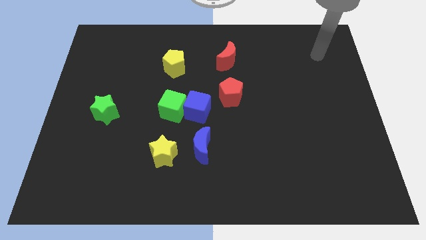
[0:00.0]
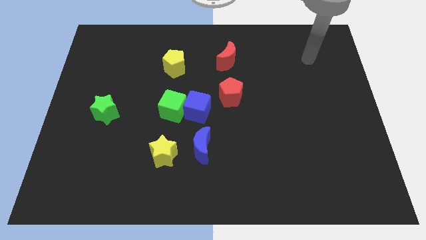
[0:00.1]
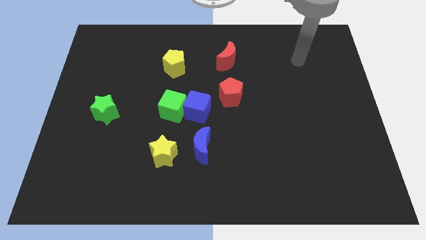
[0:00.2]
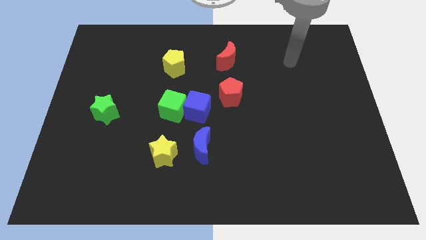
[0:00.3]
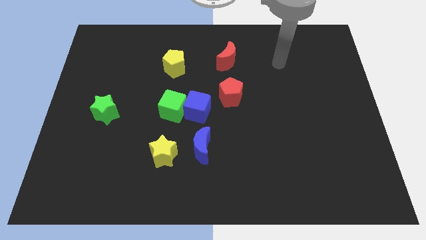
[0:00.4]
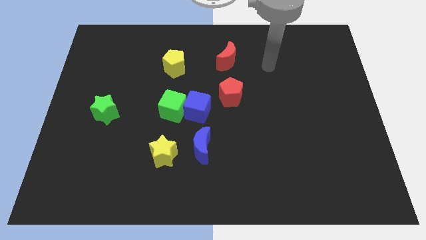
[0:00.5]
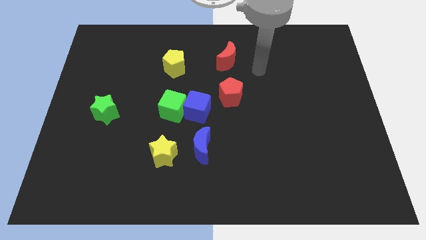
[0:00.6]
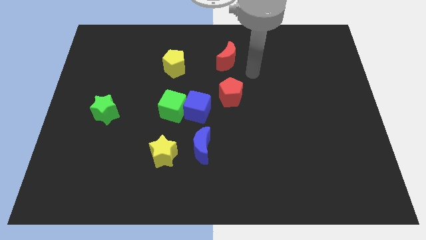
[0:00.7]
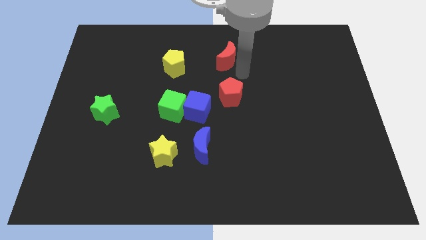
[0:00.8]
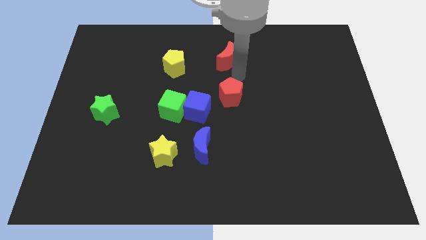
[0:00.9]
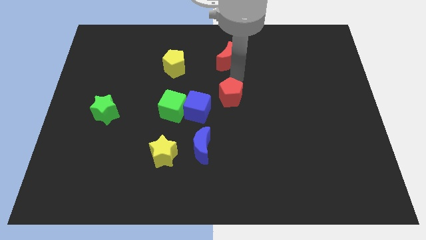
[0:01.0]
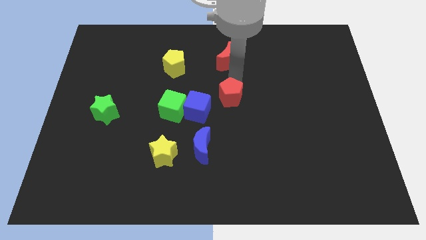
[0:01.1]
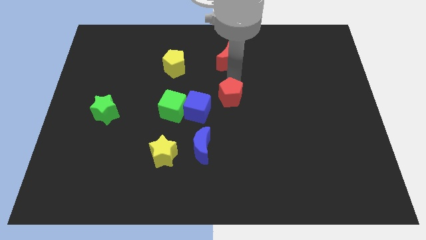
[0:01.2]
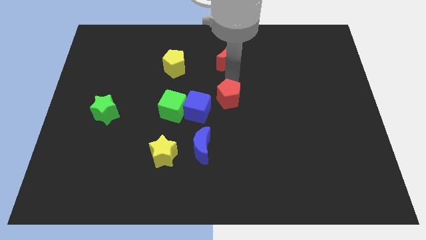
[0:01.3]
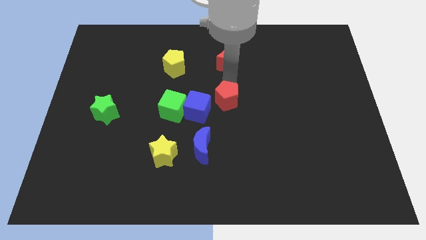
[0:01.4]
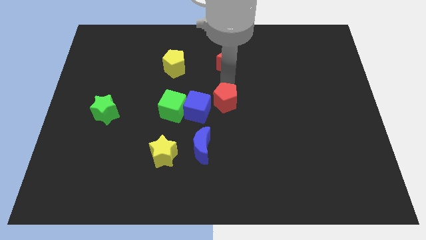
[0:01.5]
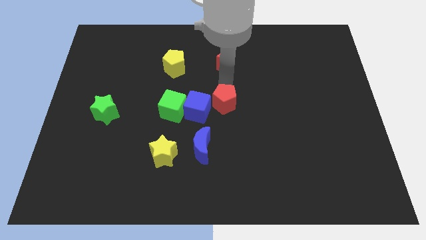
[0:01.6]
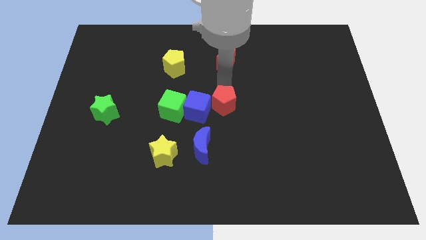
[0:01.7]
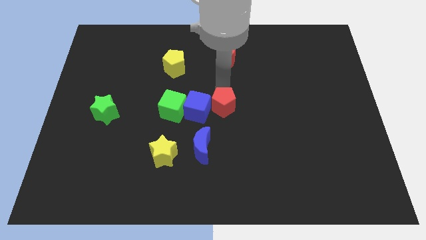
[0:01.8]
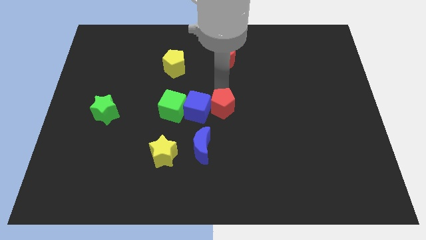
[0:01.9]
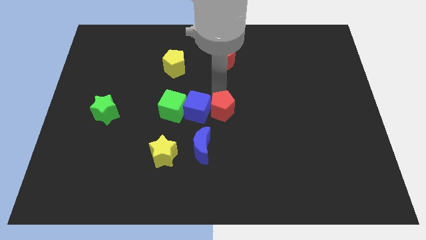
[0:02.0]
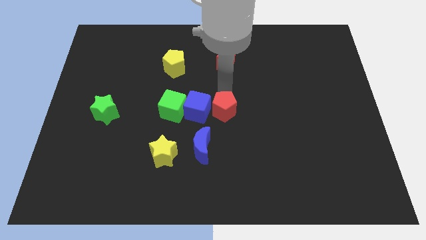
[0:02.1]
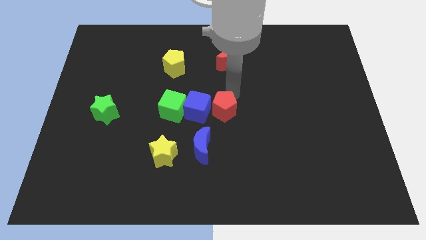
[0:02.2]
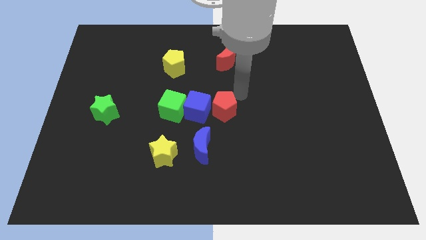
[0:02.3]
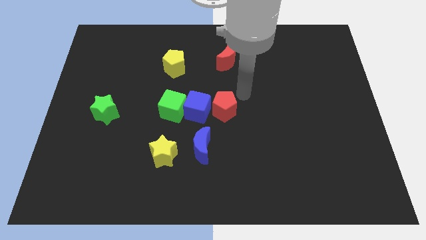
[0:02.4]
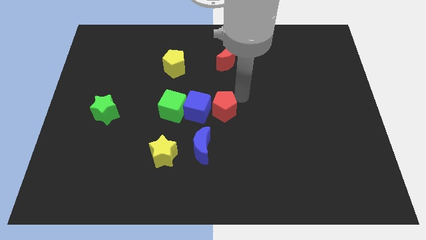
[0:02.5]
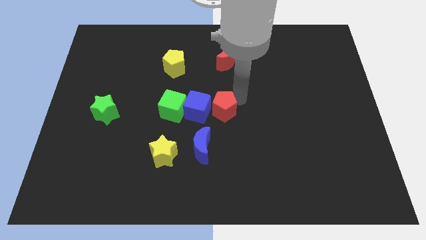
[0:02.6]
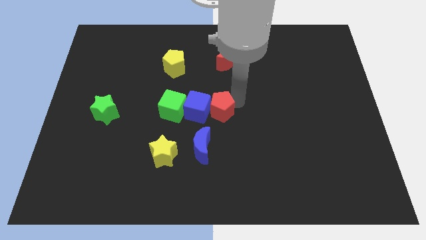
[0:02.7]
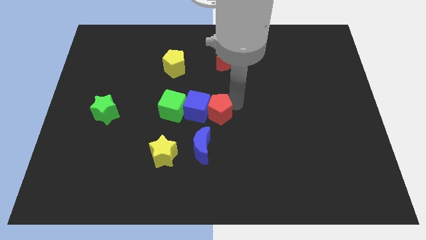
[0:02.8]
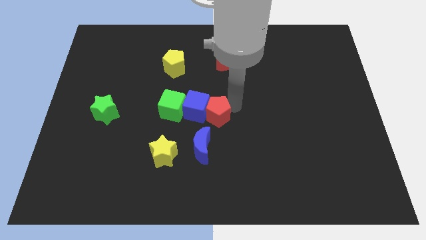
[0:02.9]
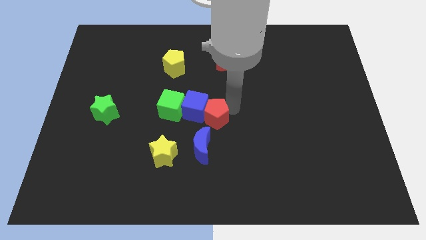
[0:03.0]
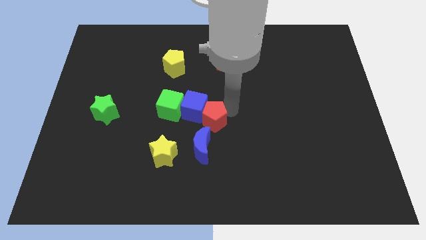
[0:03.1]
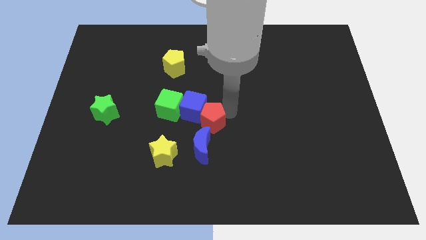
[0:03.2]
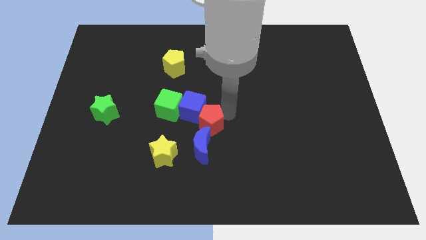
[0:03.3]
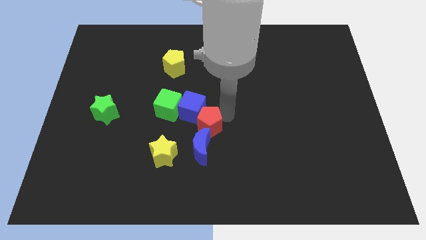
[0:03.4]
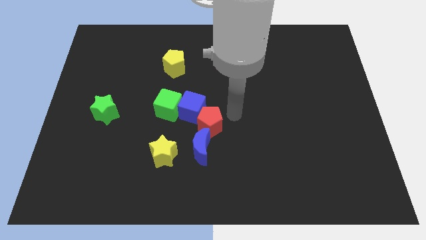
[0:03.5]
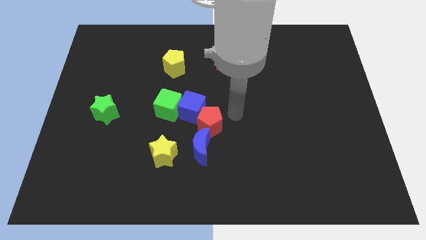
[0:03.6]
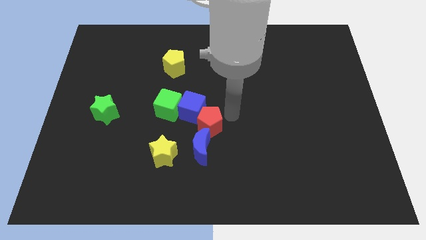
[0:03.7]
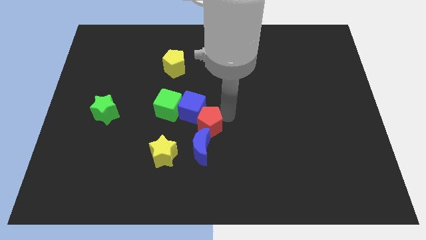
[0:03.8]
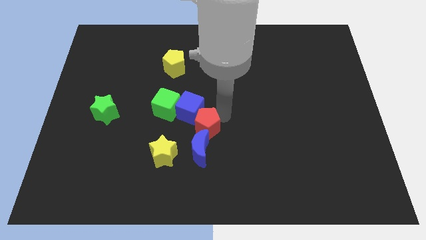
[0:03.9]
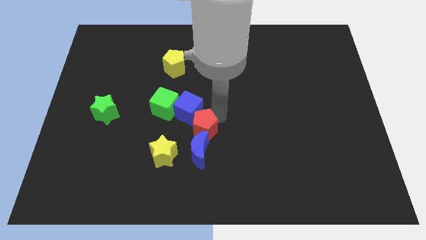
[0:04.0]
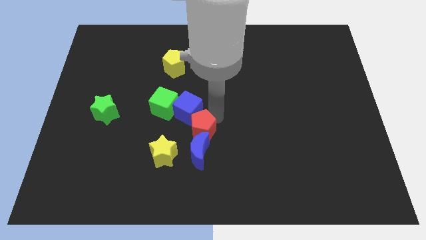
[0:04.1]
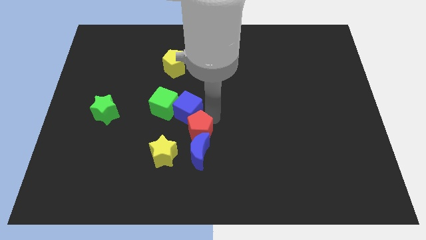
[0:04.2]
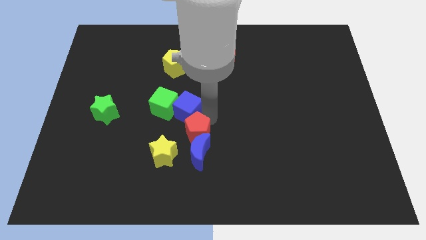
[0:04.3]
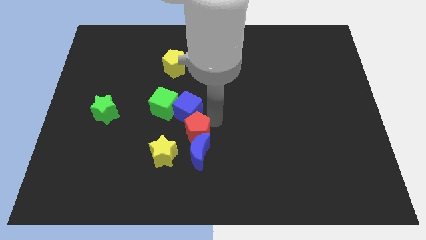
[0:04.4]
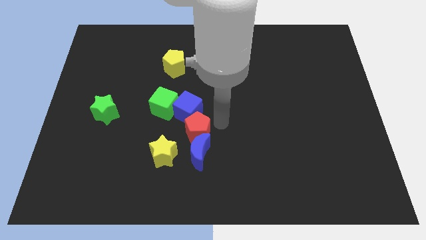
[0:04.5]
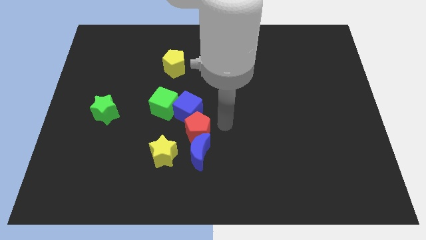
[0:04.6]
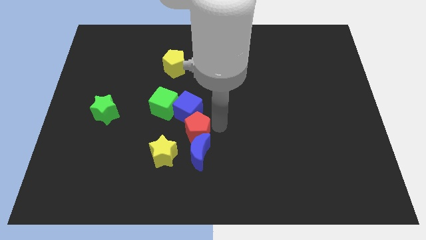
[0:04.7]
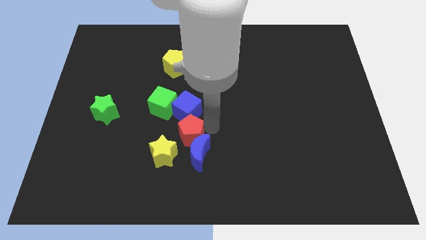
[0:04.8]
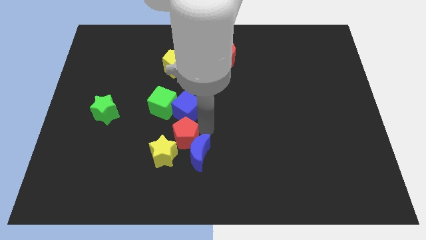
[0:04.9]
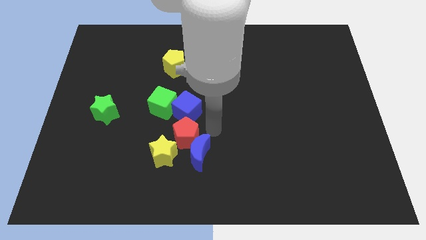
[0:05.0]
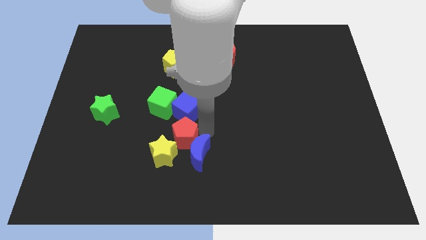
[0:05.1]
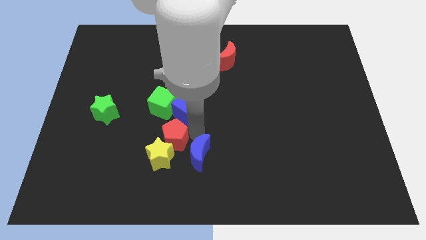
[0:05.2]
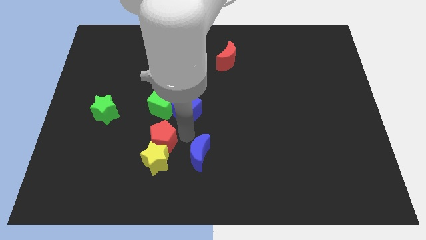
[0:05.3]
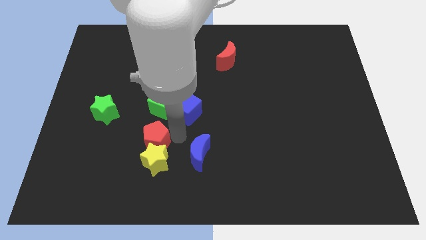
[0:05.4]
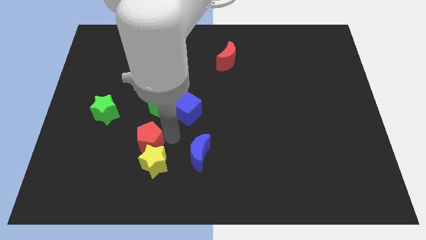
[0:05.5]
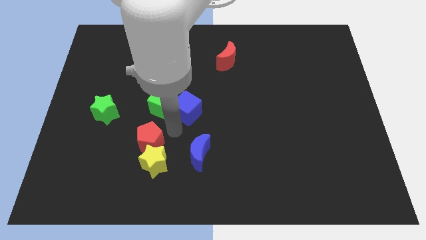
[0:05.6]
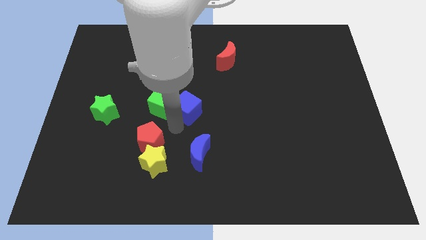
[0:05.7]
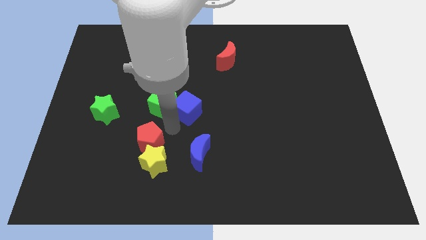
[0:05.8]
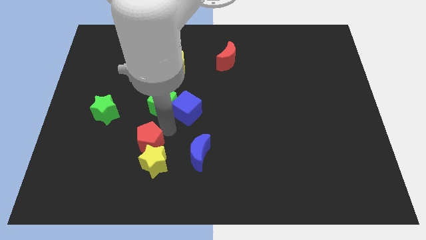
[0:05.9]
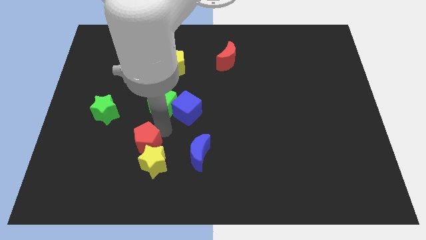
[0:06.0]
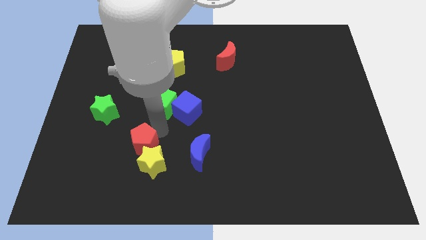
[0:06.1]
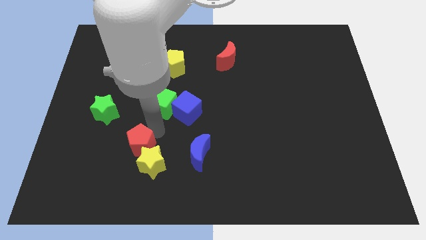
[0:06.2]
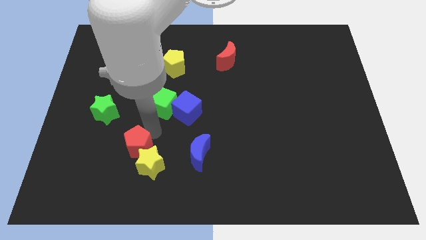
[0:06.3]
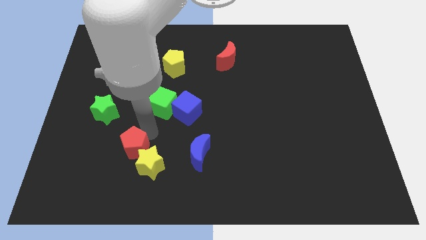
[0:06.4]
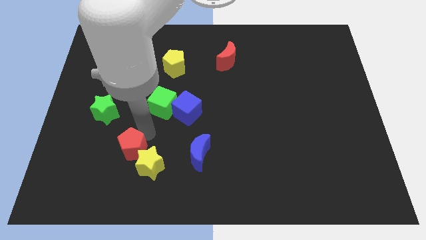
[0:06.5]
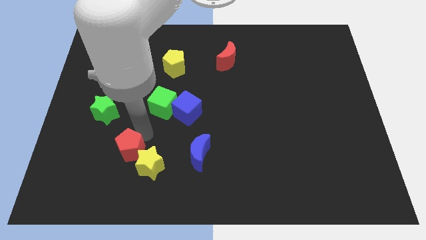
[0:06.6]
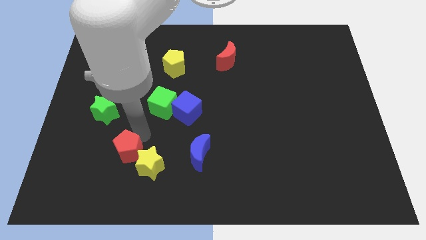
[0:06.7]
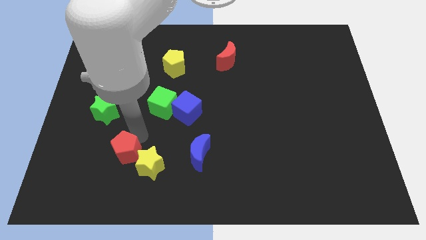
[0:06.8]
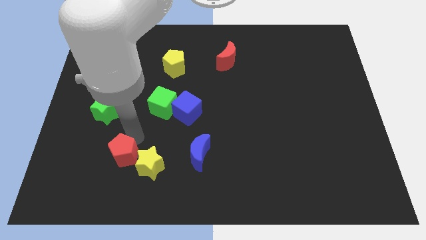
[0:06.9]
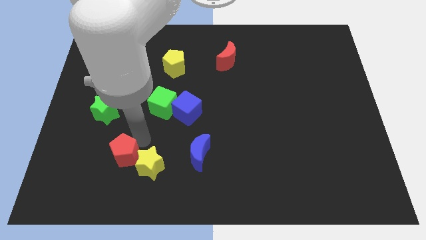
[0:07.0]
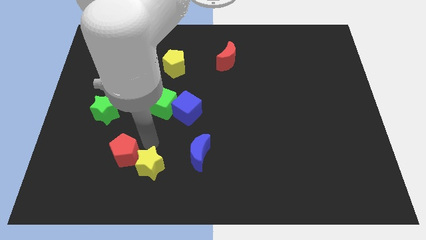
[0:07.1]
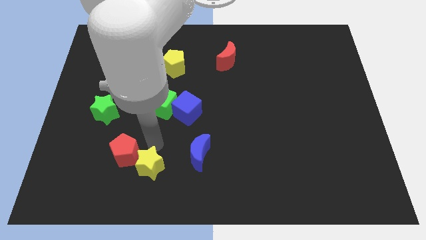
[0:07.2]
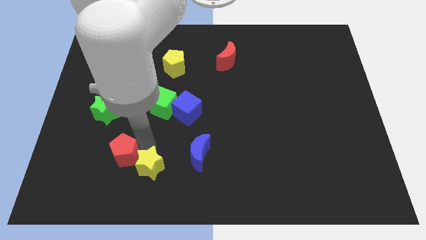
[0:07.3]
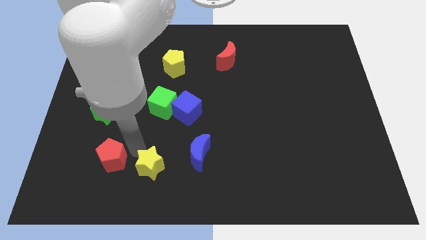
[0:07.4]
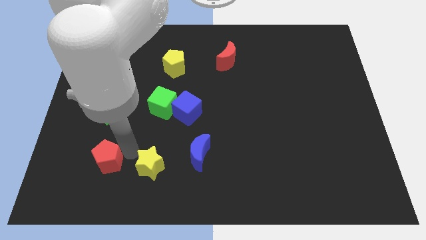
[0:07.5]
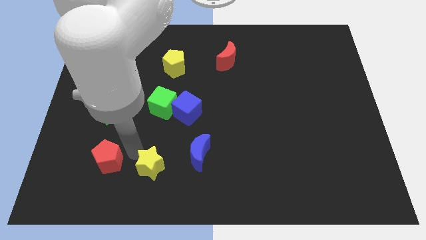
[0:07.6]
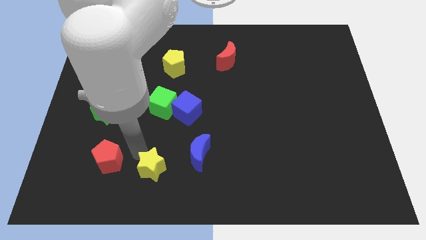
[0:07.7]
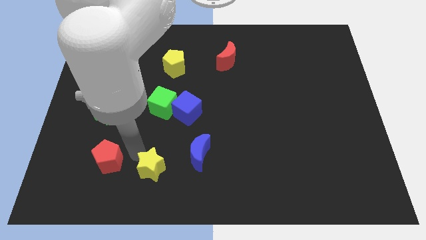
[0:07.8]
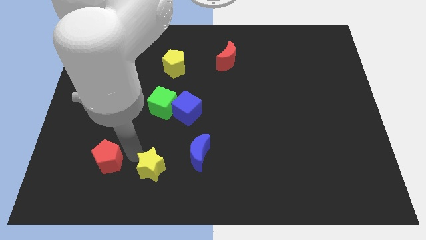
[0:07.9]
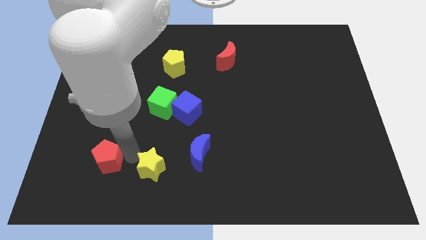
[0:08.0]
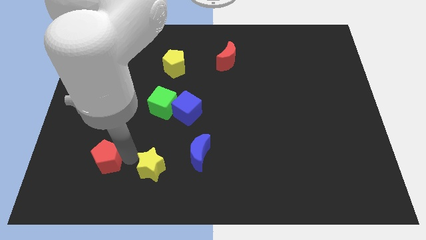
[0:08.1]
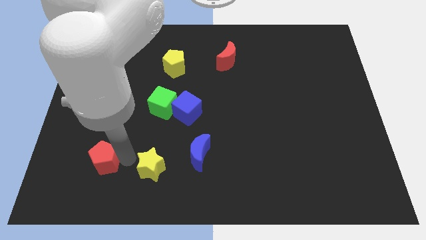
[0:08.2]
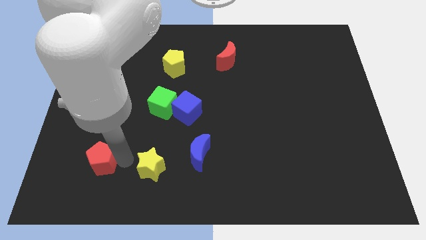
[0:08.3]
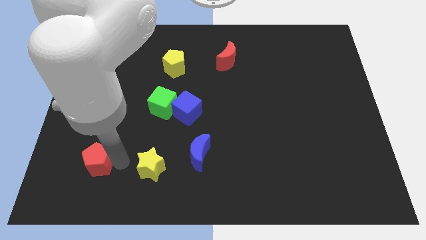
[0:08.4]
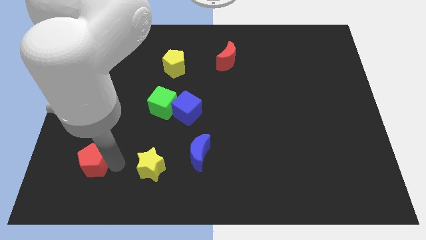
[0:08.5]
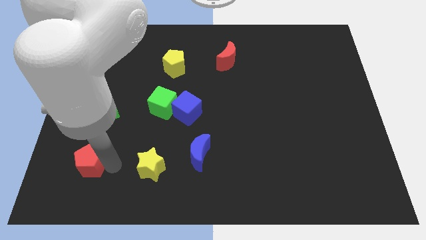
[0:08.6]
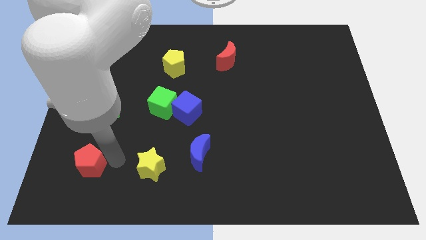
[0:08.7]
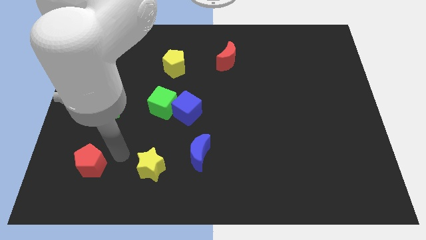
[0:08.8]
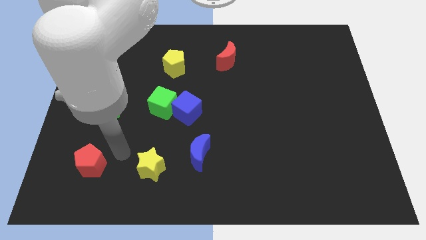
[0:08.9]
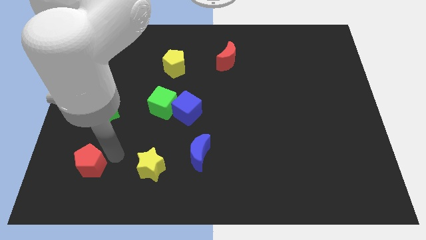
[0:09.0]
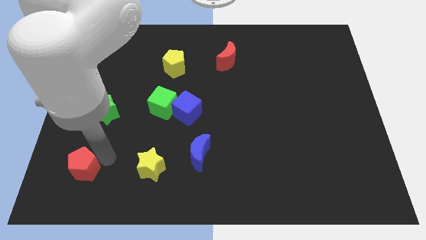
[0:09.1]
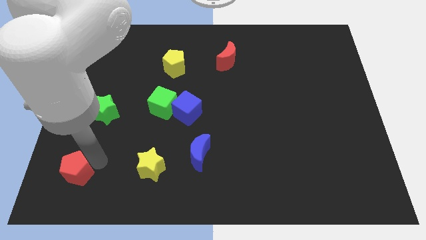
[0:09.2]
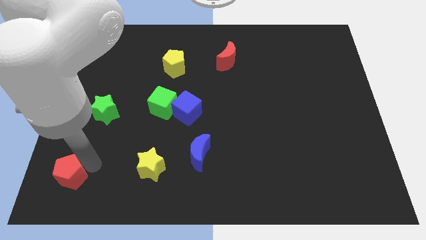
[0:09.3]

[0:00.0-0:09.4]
put the red pentagon to the bottom left corner
